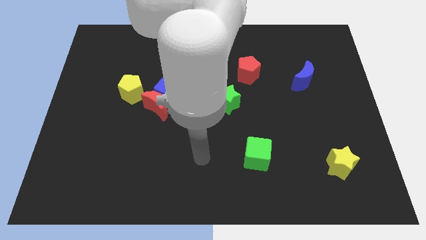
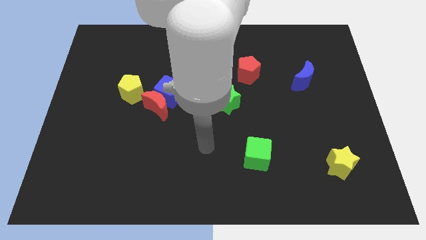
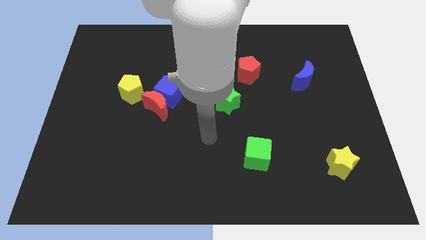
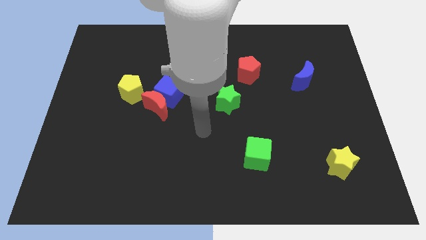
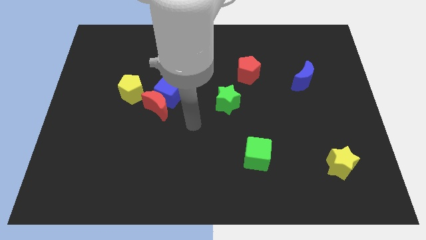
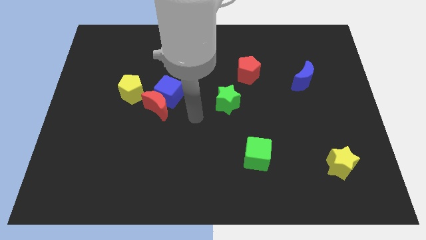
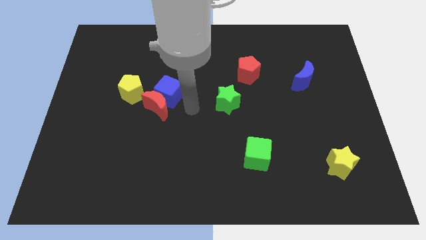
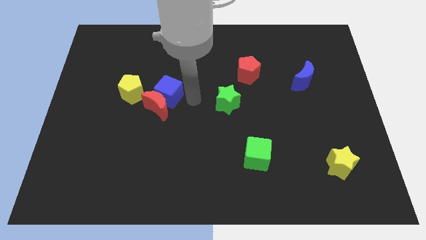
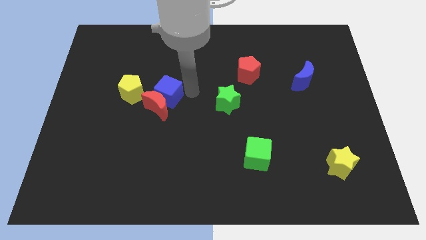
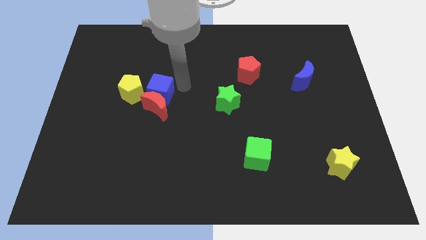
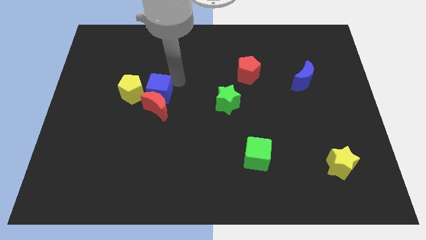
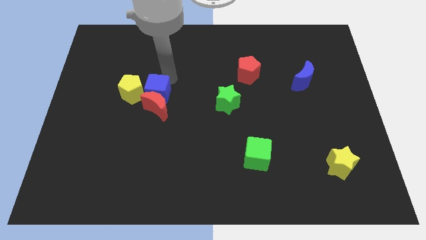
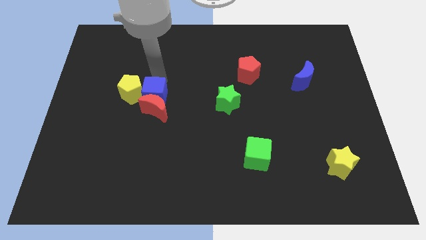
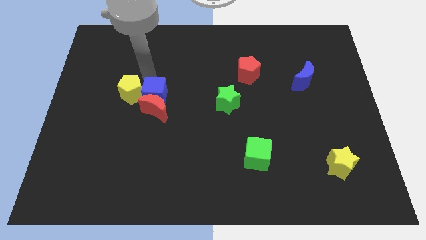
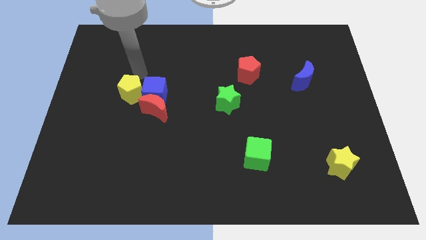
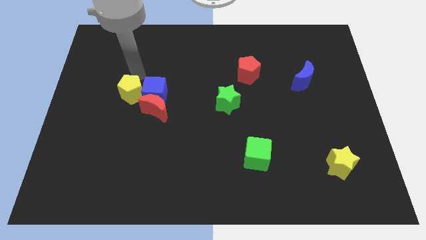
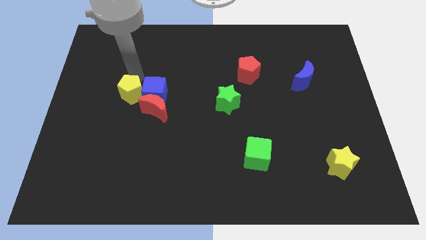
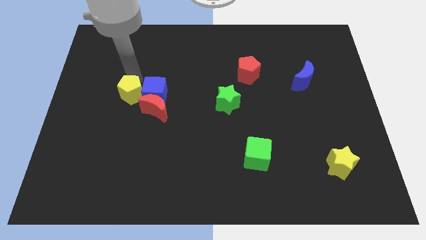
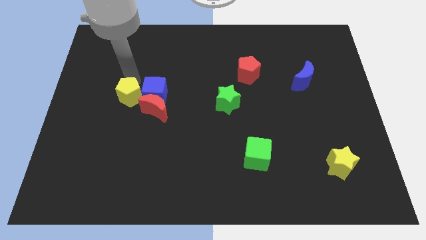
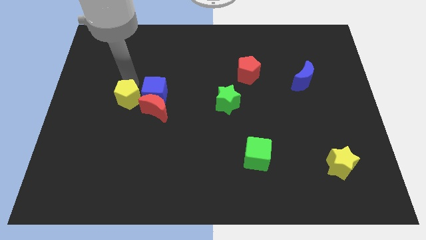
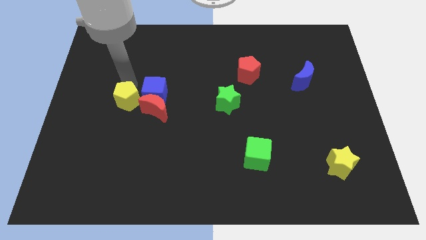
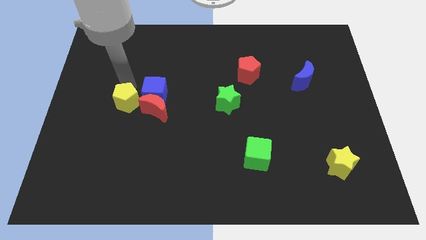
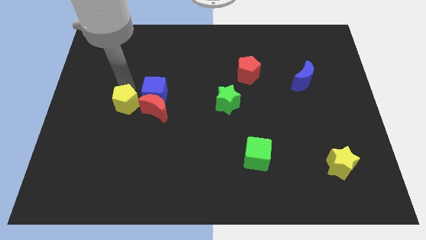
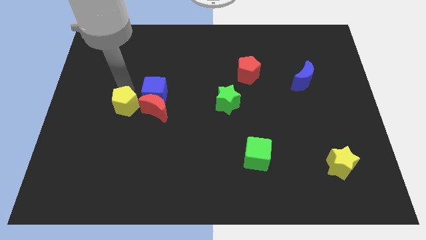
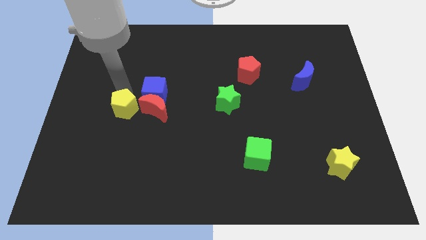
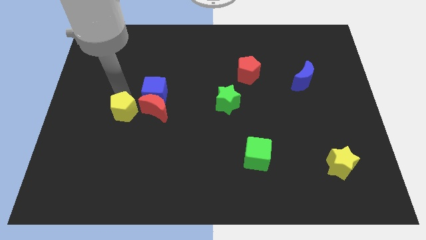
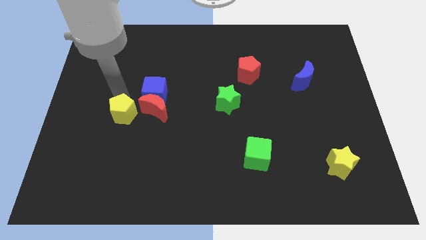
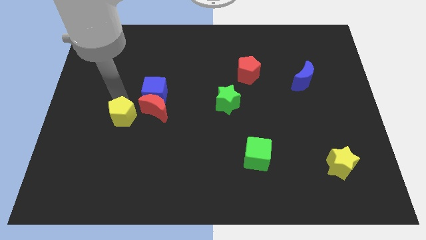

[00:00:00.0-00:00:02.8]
slightly push the yellow pentagon down

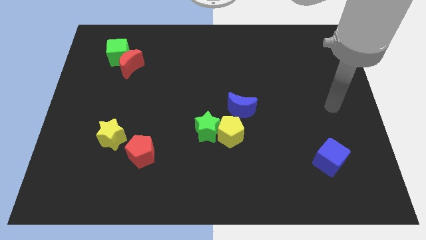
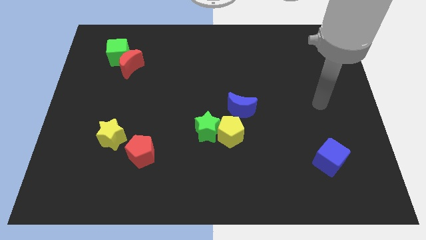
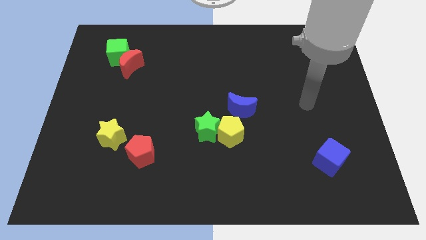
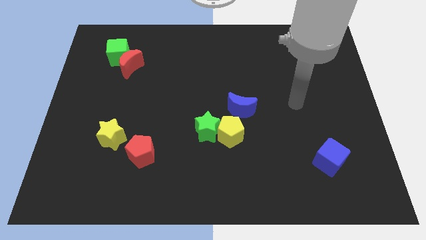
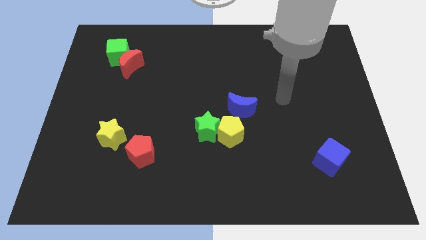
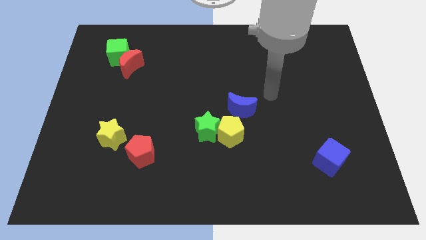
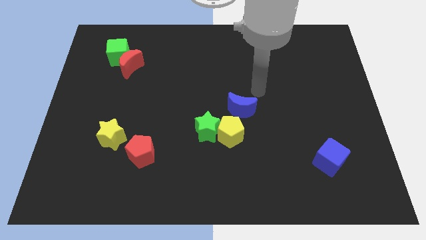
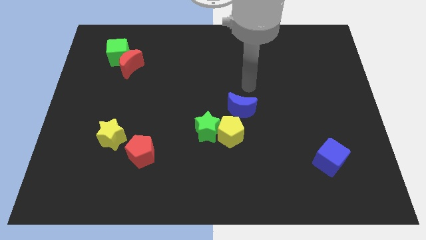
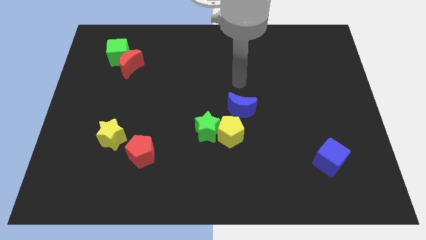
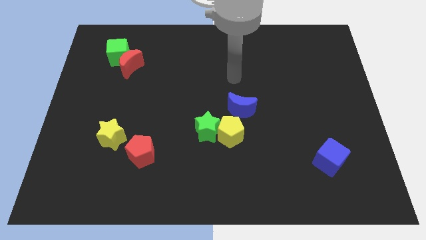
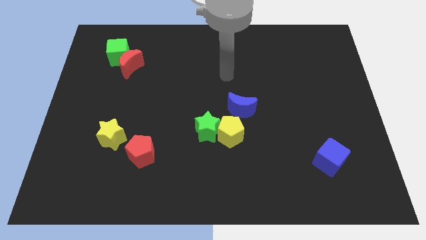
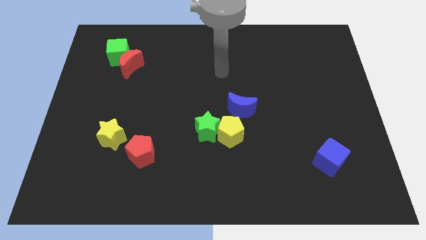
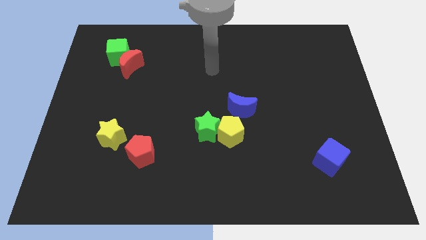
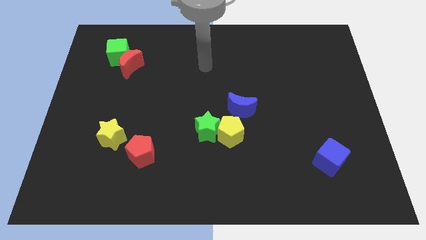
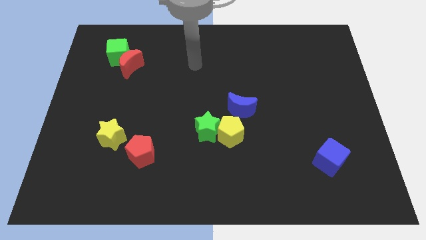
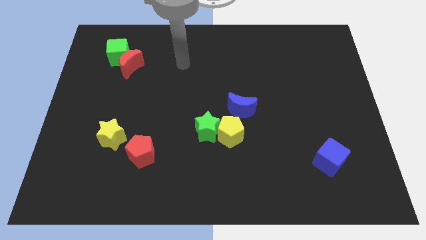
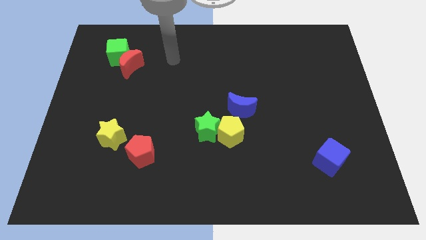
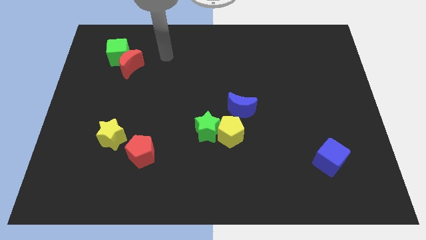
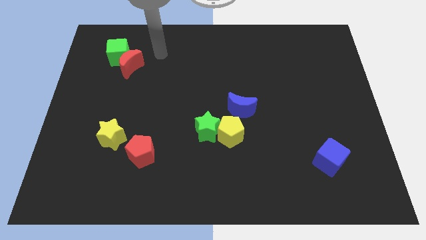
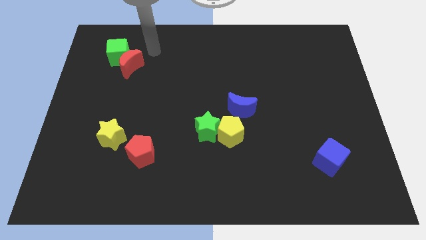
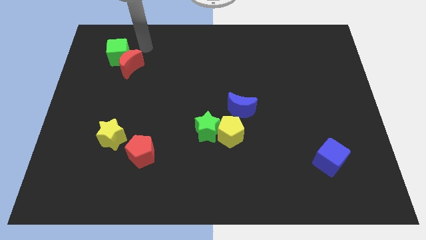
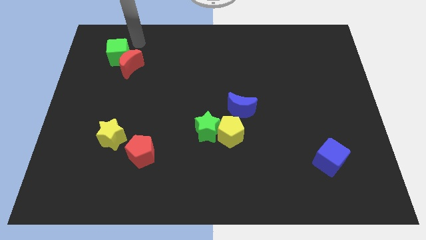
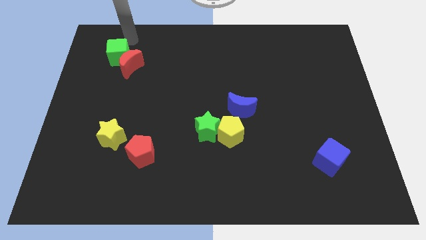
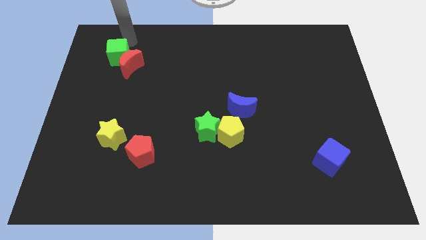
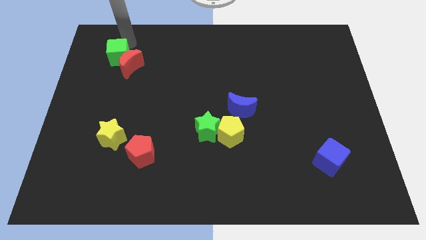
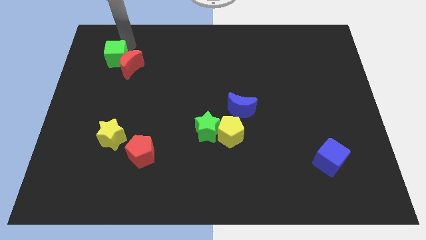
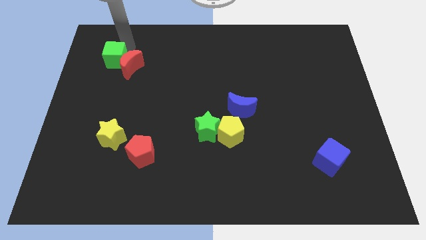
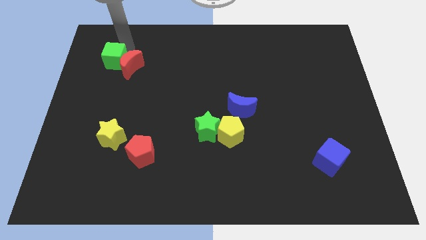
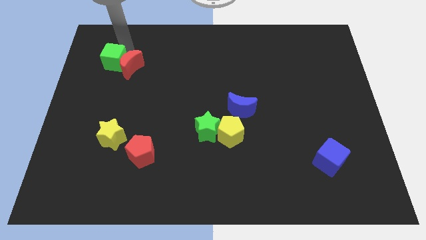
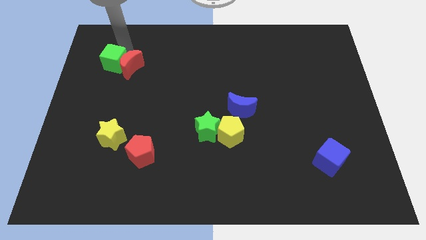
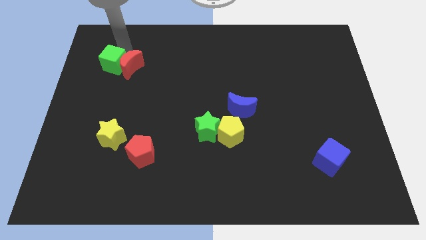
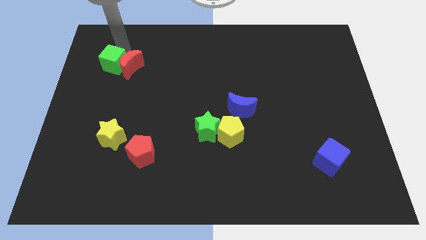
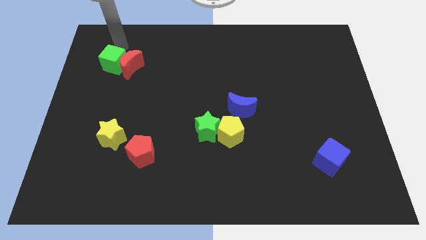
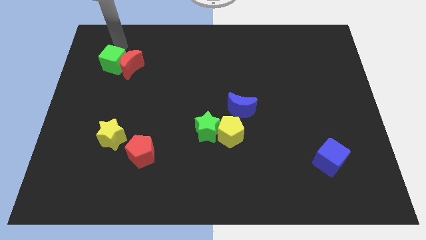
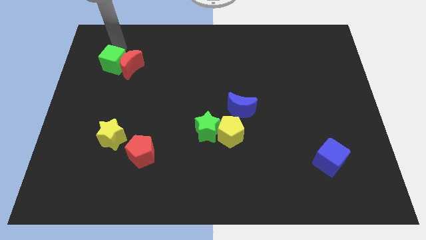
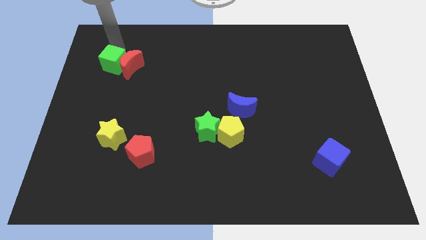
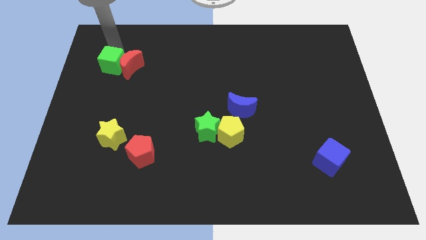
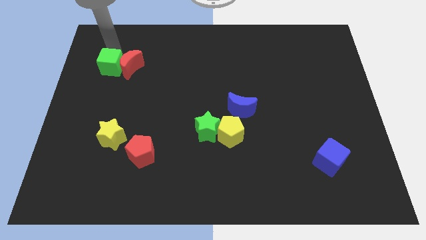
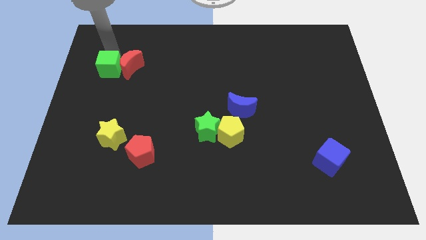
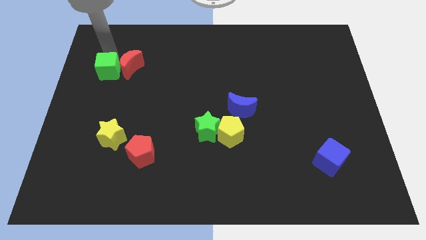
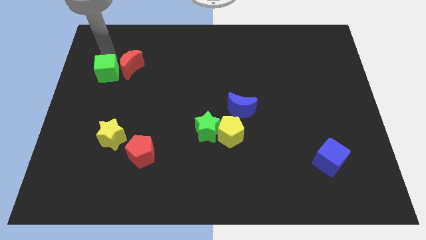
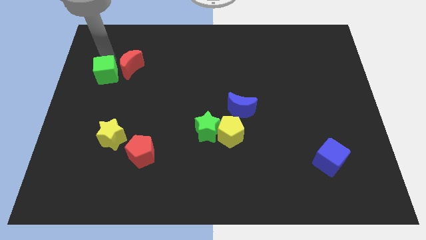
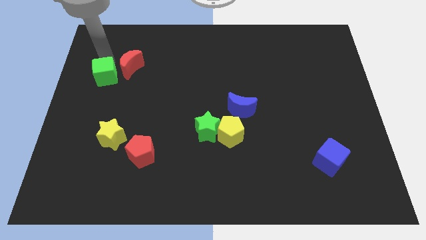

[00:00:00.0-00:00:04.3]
slightly push the green cube down

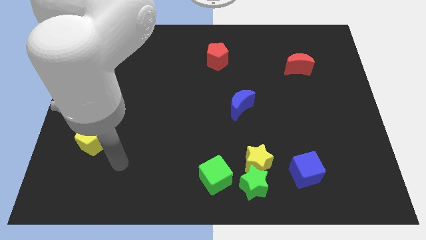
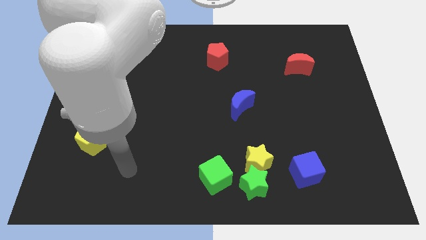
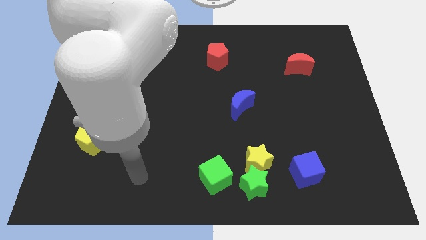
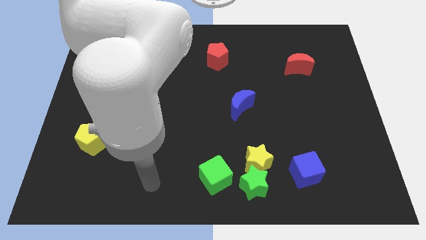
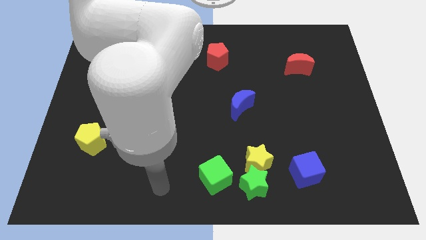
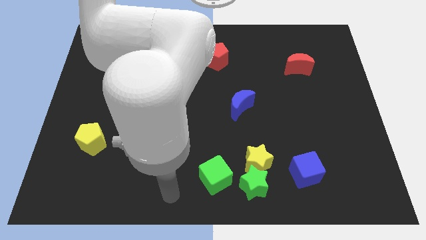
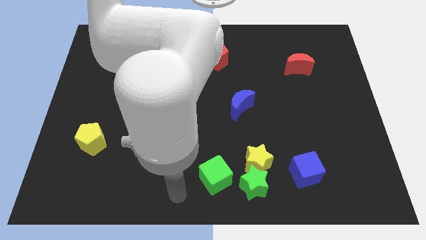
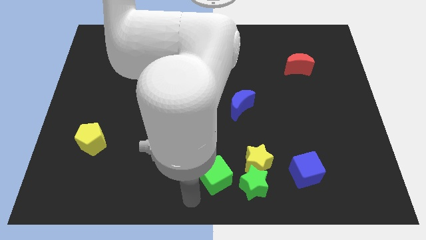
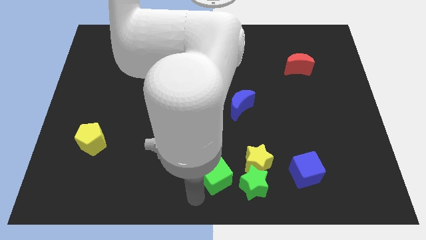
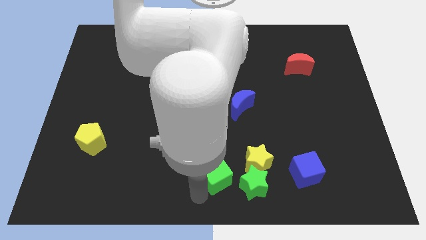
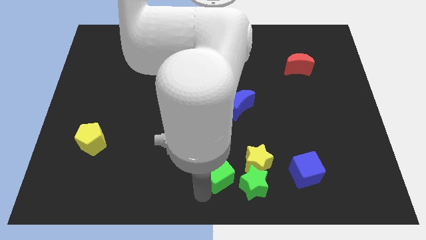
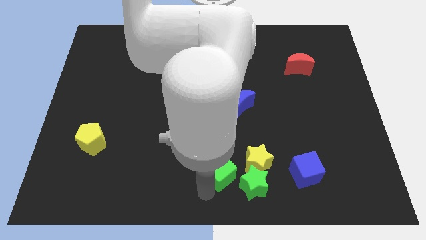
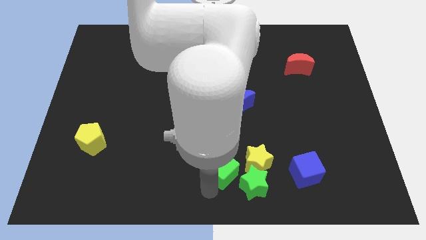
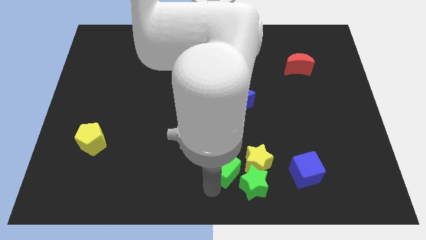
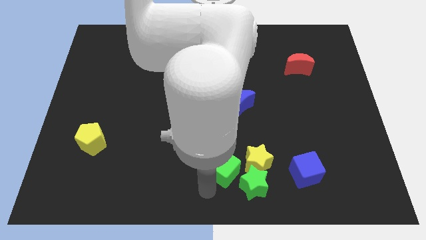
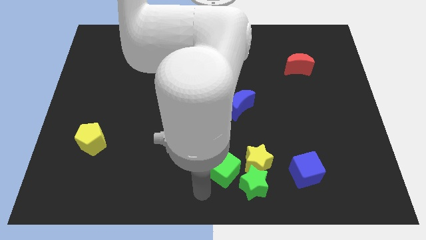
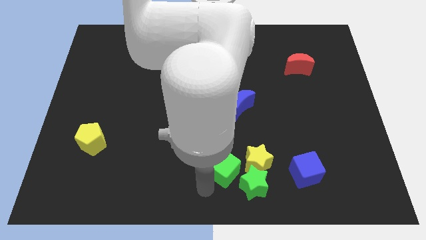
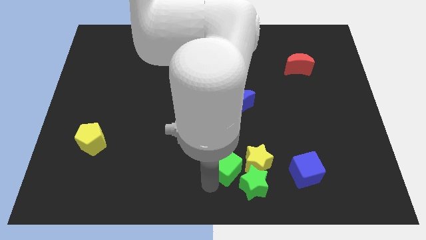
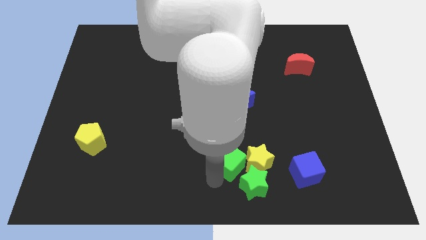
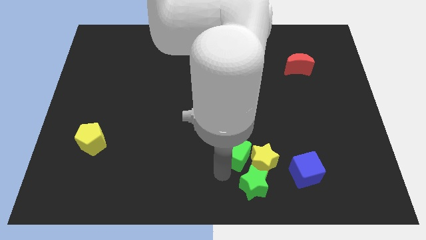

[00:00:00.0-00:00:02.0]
move the green cube up and then to the right a little
